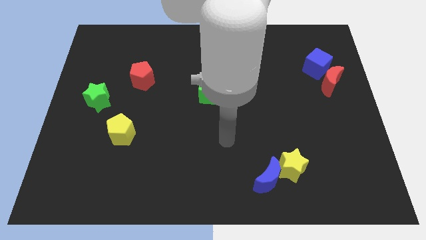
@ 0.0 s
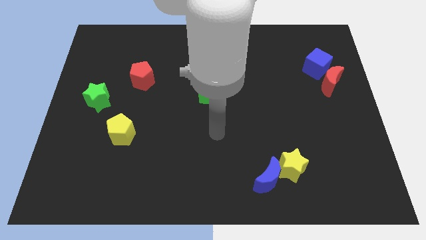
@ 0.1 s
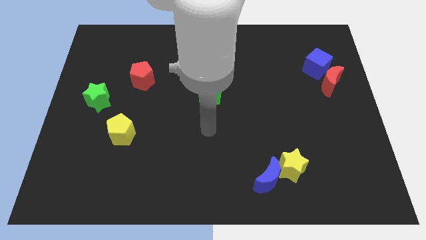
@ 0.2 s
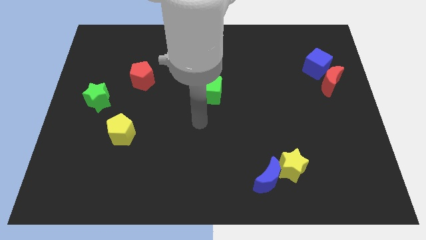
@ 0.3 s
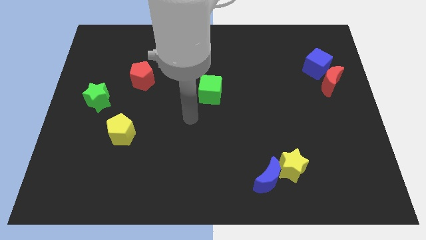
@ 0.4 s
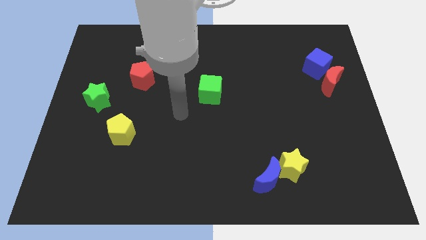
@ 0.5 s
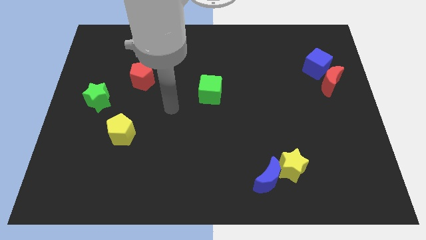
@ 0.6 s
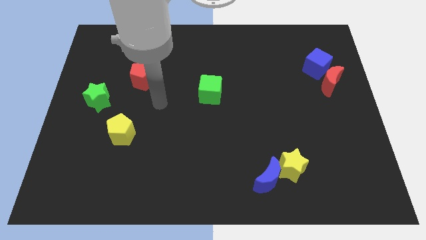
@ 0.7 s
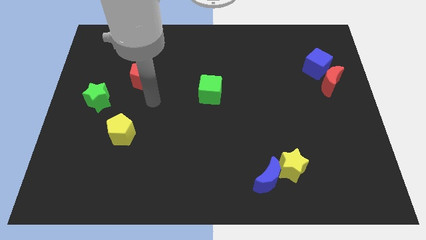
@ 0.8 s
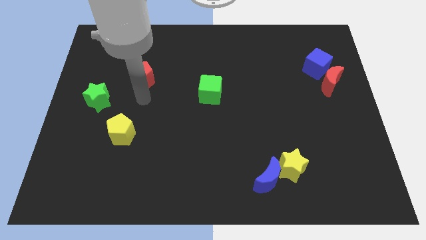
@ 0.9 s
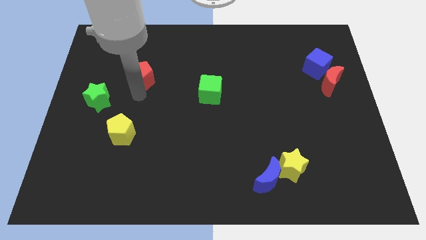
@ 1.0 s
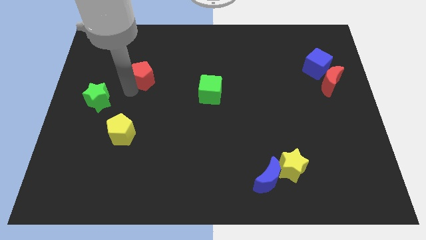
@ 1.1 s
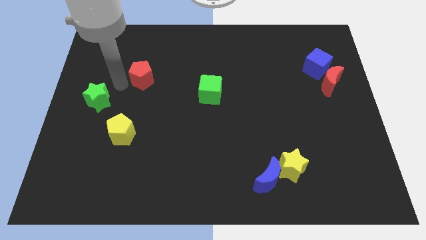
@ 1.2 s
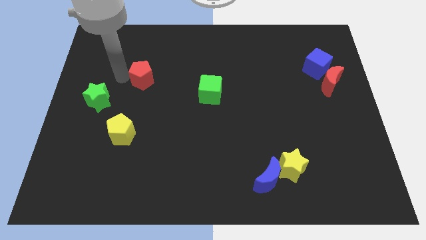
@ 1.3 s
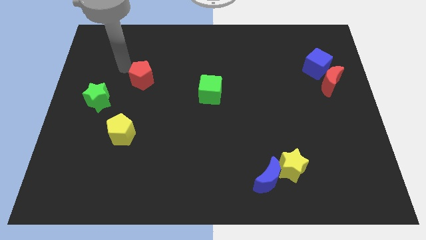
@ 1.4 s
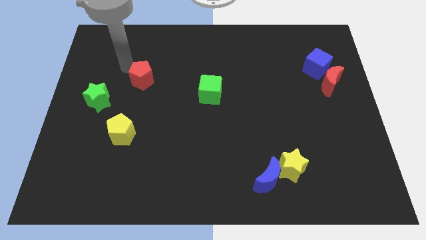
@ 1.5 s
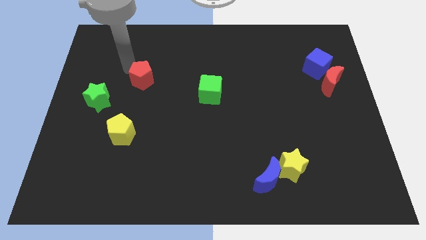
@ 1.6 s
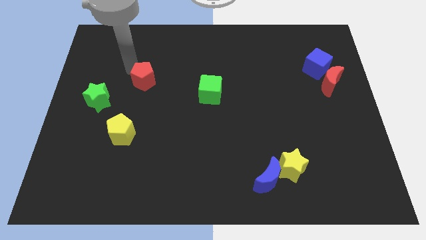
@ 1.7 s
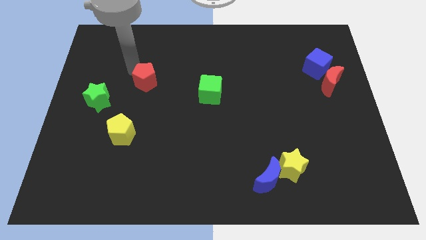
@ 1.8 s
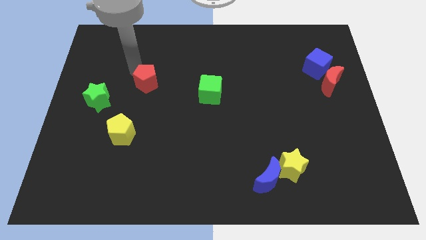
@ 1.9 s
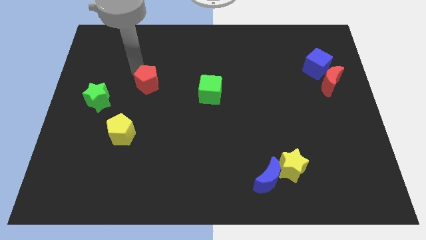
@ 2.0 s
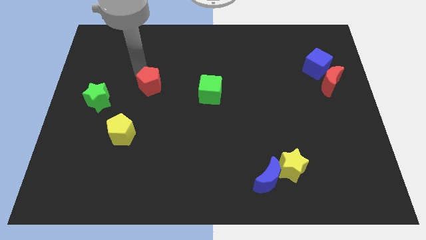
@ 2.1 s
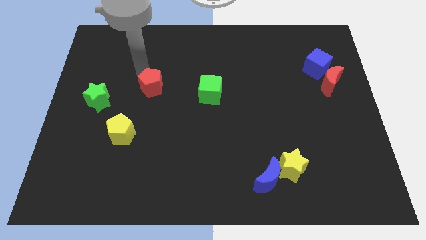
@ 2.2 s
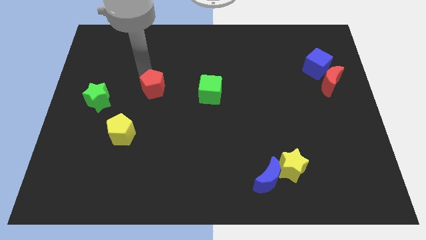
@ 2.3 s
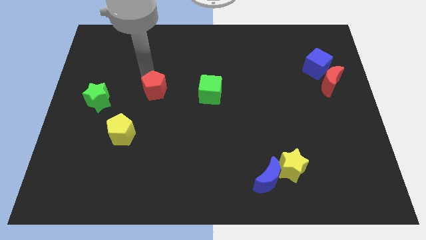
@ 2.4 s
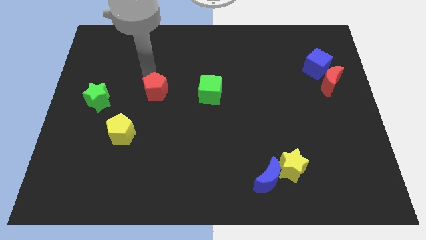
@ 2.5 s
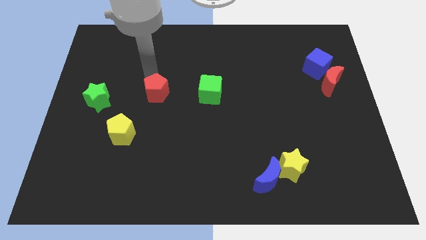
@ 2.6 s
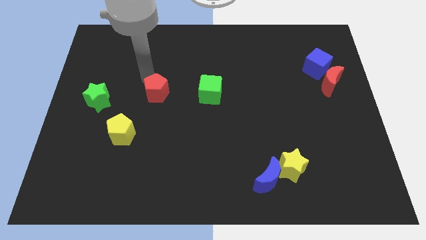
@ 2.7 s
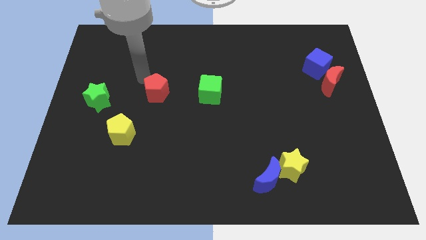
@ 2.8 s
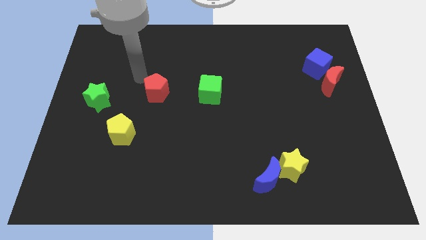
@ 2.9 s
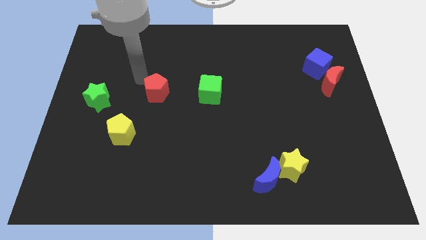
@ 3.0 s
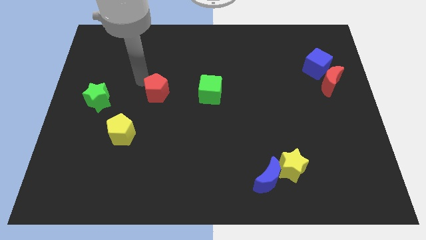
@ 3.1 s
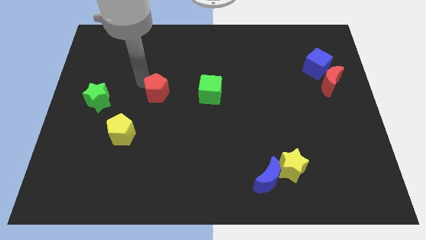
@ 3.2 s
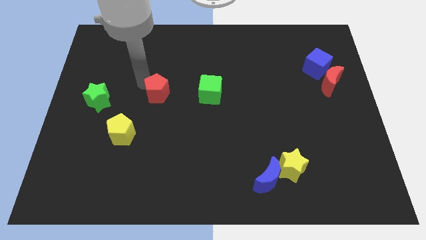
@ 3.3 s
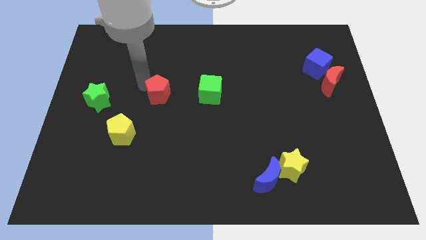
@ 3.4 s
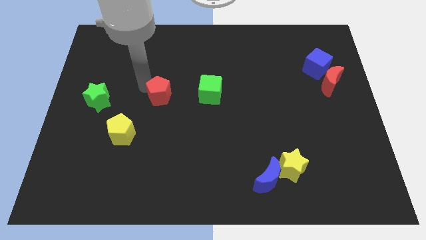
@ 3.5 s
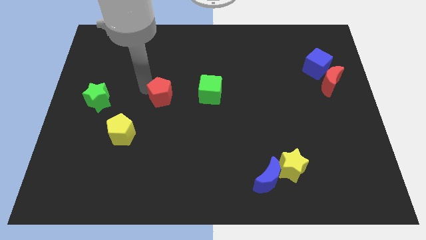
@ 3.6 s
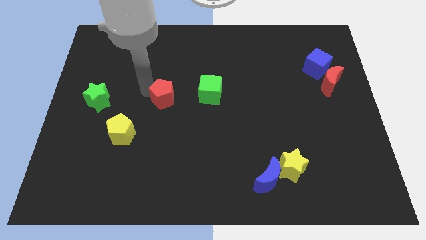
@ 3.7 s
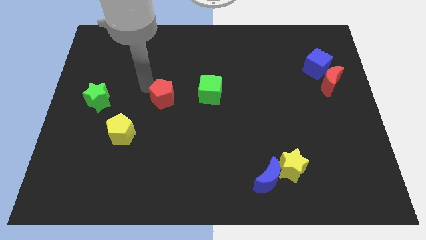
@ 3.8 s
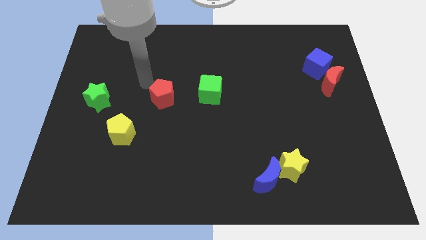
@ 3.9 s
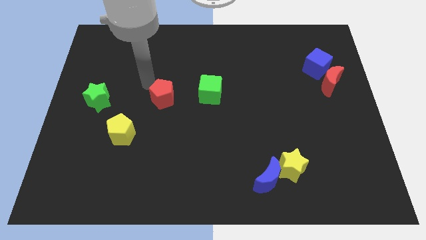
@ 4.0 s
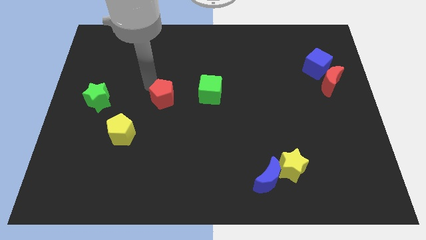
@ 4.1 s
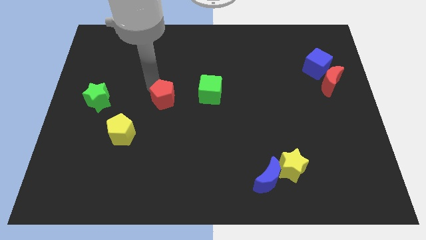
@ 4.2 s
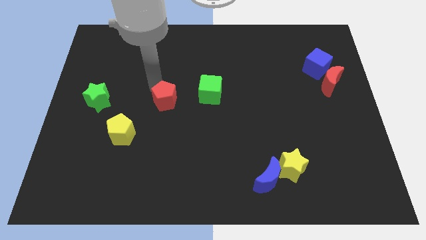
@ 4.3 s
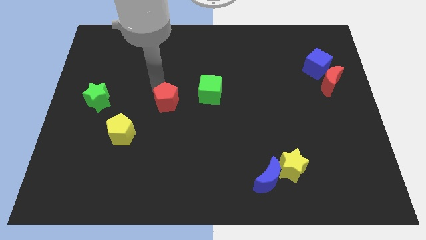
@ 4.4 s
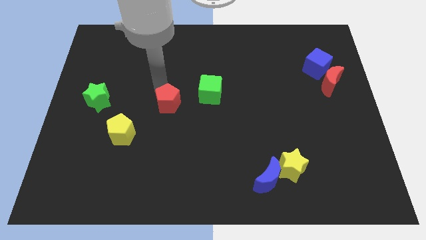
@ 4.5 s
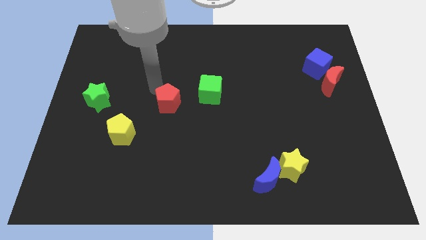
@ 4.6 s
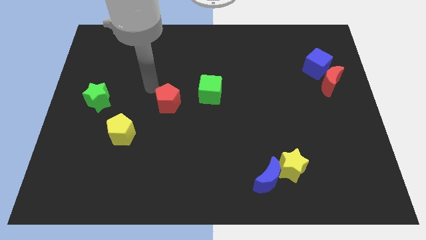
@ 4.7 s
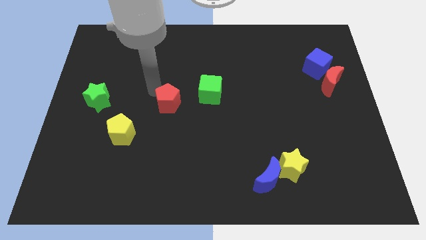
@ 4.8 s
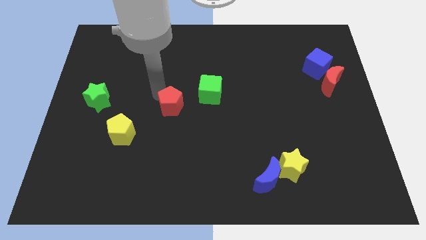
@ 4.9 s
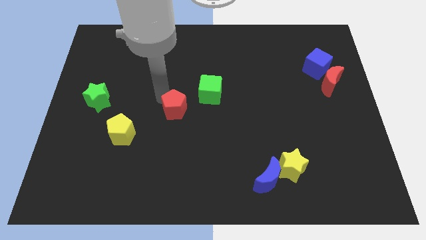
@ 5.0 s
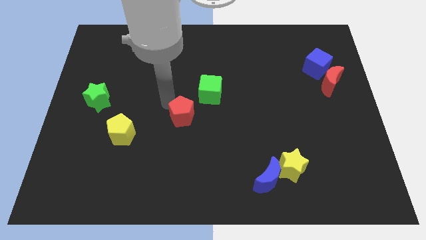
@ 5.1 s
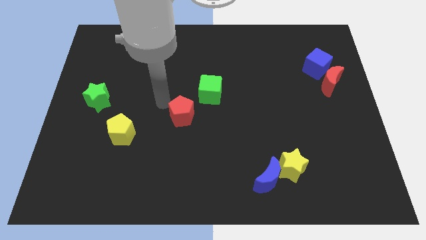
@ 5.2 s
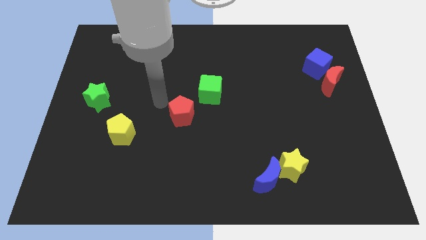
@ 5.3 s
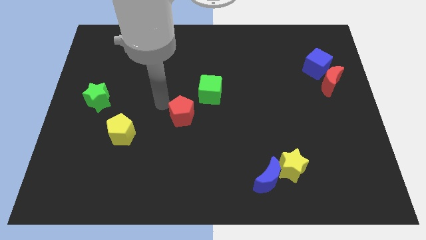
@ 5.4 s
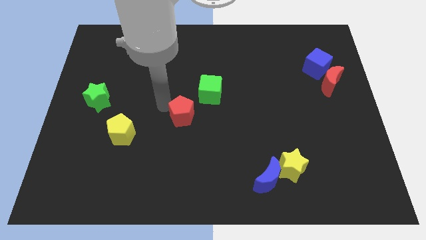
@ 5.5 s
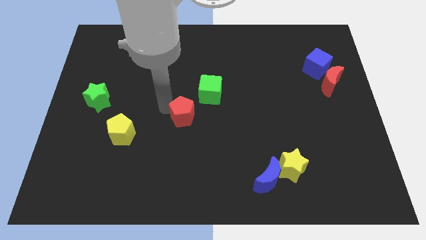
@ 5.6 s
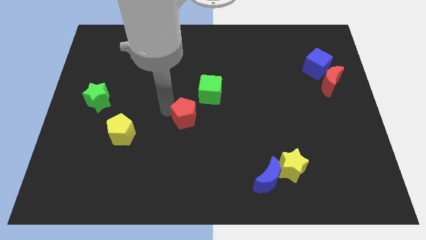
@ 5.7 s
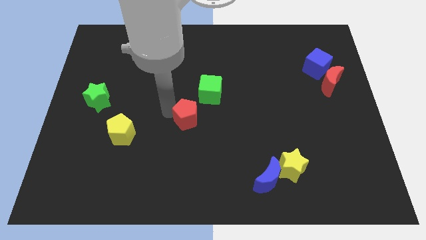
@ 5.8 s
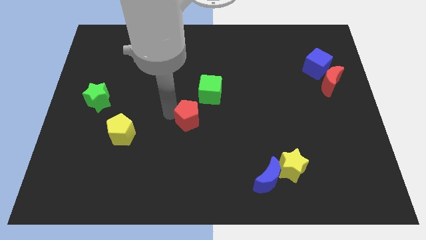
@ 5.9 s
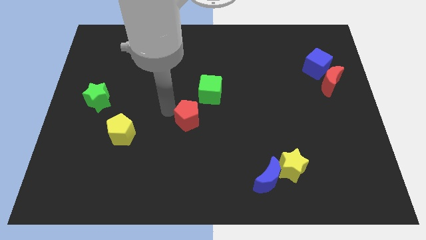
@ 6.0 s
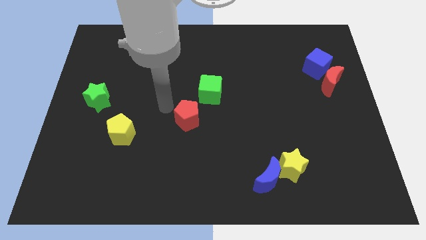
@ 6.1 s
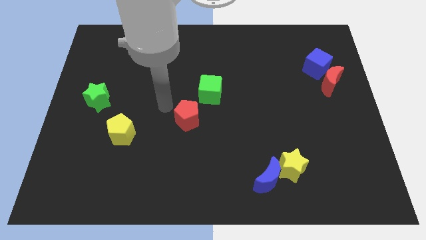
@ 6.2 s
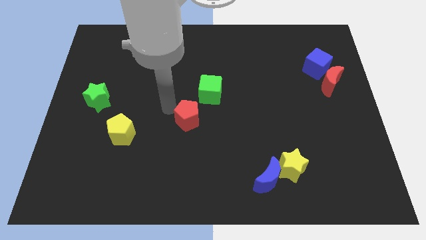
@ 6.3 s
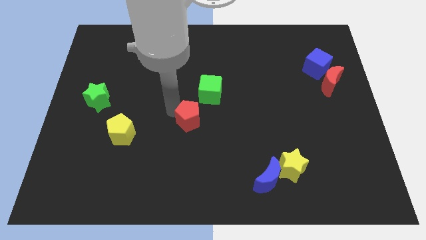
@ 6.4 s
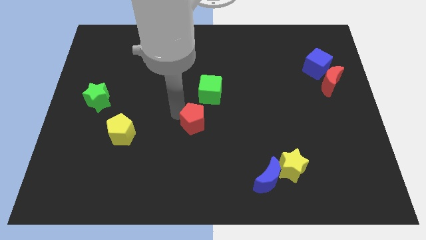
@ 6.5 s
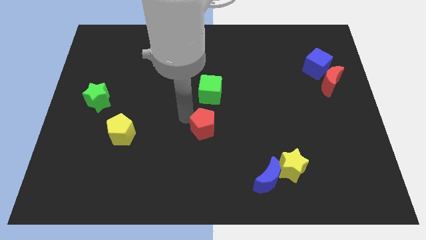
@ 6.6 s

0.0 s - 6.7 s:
slide the red pentagon down and to the right

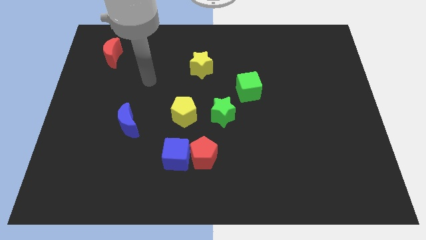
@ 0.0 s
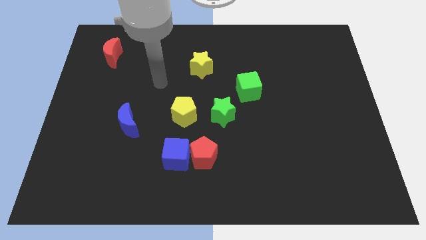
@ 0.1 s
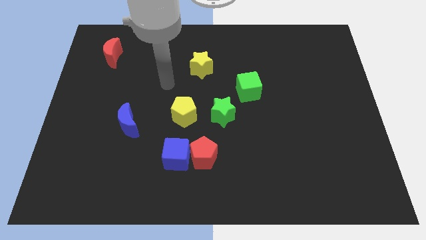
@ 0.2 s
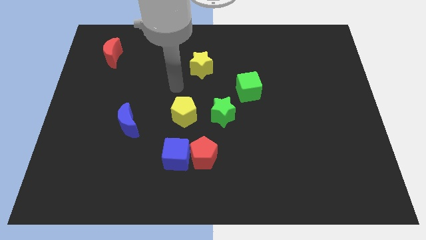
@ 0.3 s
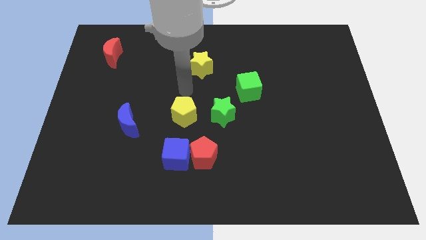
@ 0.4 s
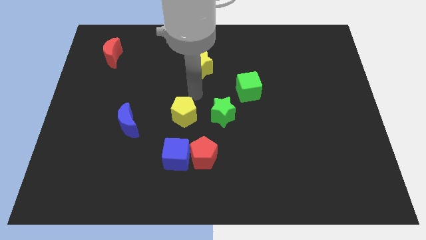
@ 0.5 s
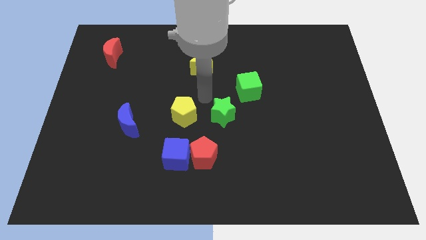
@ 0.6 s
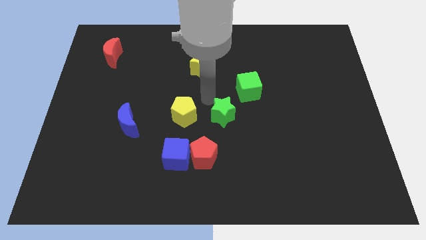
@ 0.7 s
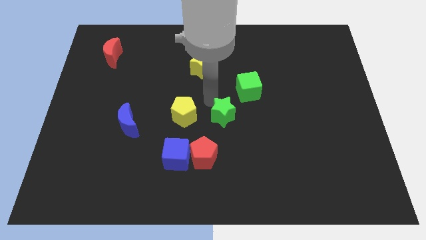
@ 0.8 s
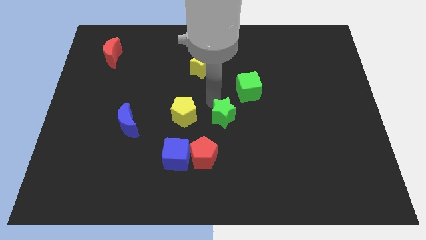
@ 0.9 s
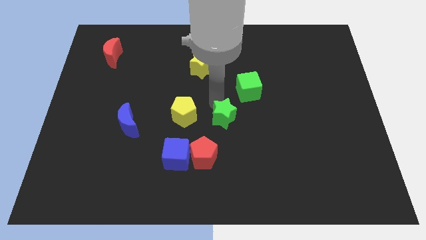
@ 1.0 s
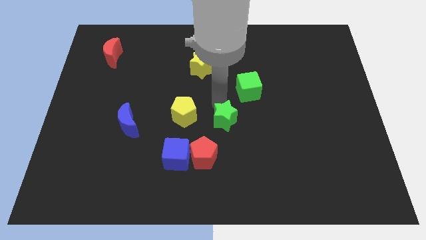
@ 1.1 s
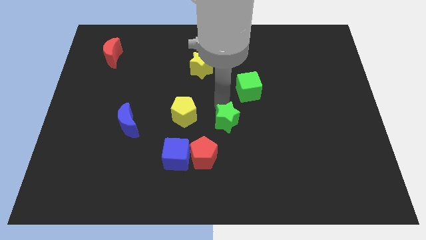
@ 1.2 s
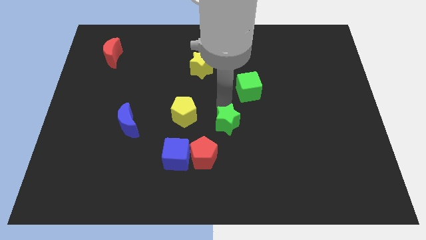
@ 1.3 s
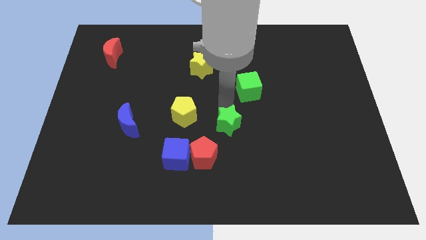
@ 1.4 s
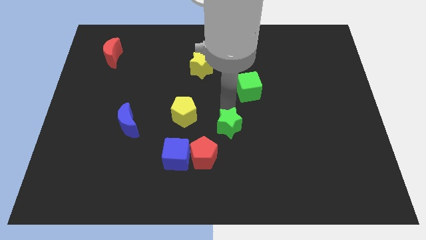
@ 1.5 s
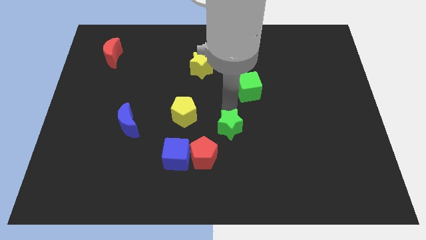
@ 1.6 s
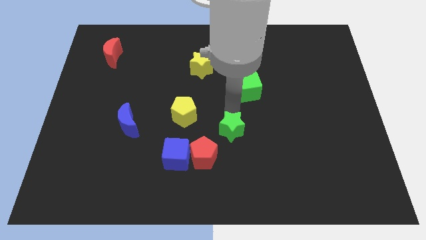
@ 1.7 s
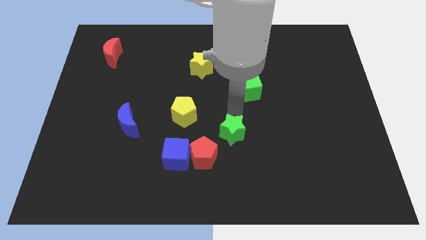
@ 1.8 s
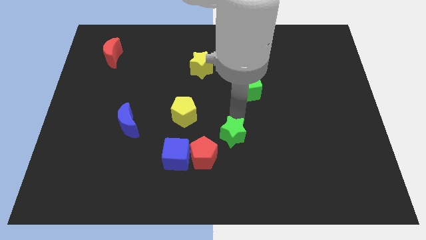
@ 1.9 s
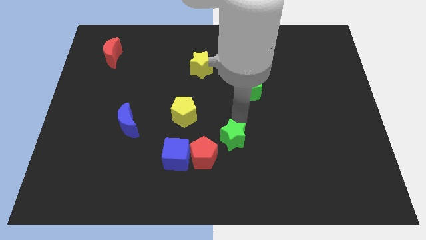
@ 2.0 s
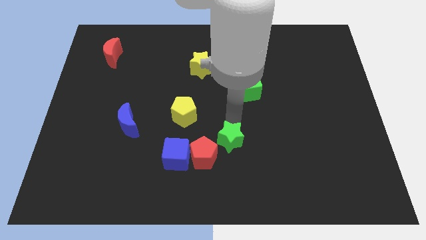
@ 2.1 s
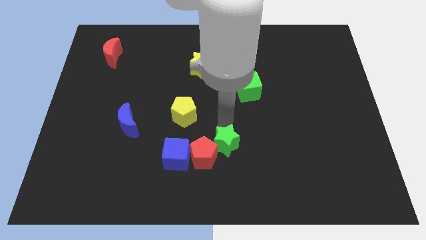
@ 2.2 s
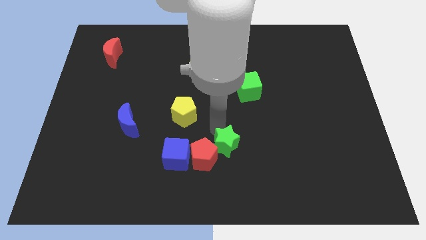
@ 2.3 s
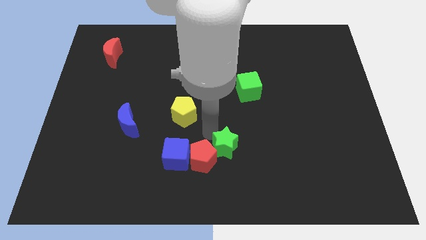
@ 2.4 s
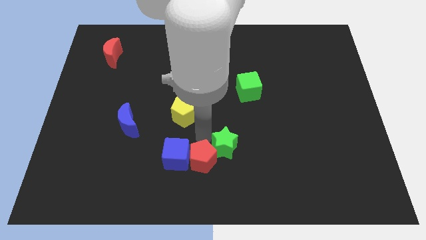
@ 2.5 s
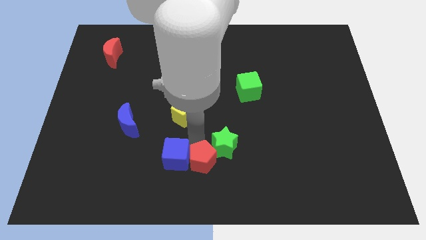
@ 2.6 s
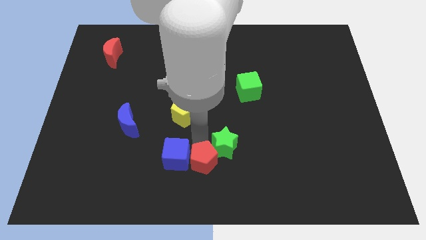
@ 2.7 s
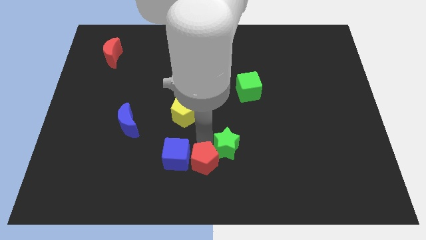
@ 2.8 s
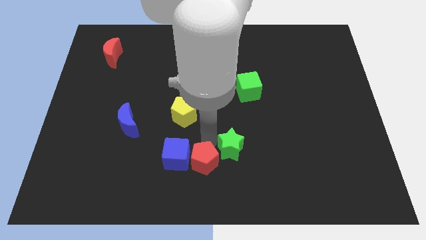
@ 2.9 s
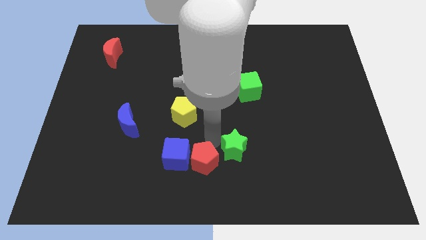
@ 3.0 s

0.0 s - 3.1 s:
move the green star downwards and then to the right a little bit
